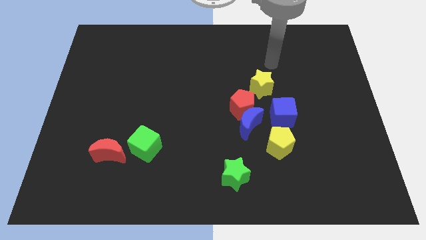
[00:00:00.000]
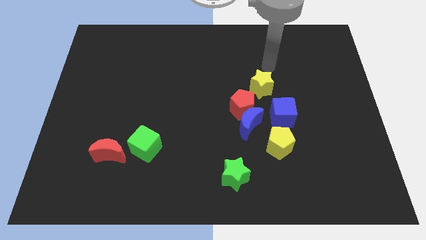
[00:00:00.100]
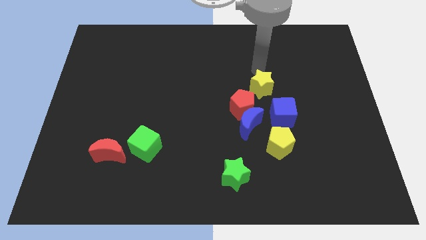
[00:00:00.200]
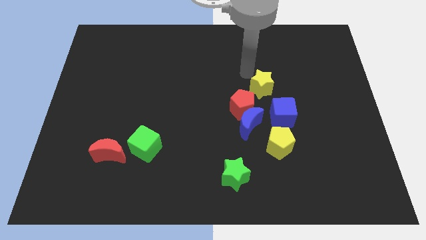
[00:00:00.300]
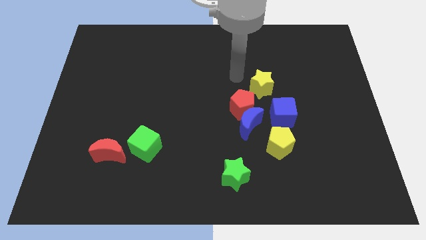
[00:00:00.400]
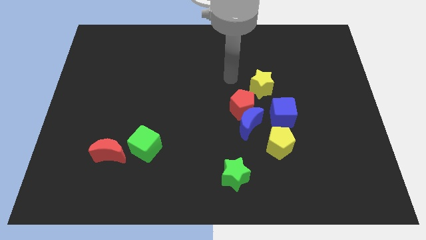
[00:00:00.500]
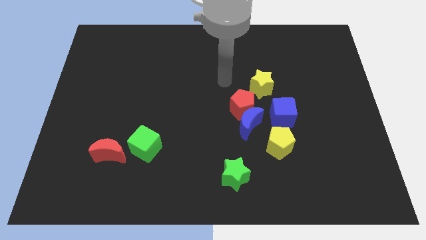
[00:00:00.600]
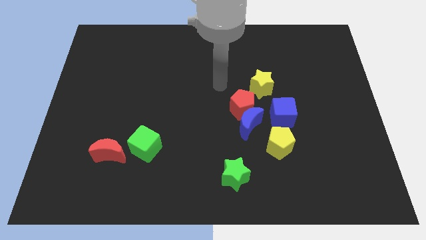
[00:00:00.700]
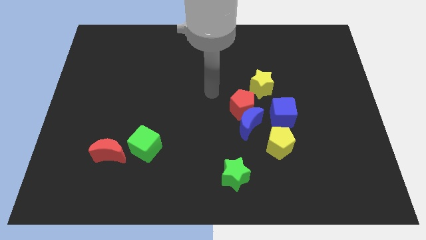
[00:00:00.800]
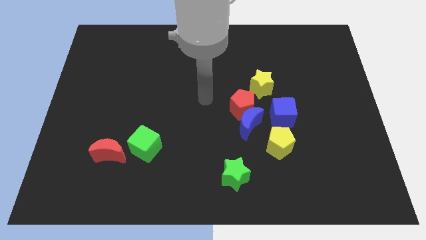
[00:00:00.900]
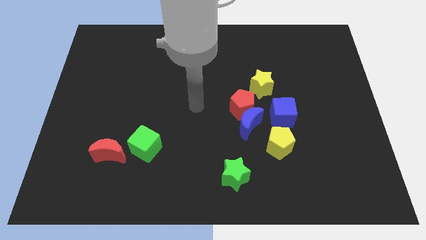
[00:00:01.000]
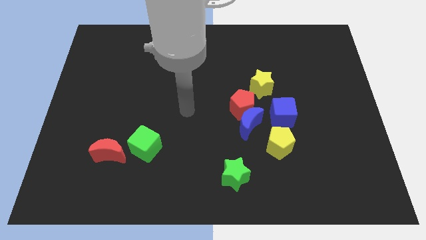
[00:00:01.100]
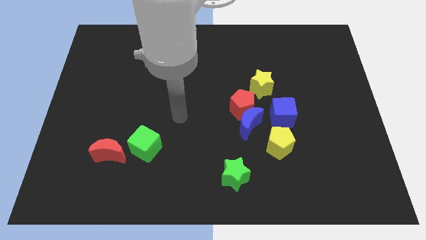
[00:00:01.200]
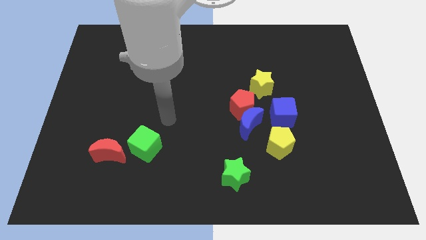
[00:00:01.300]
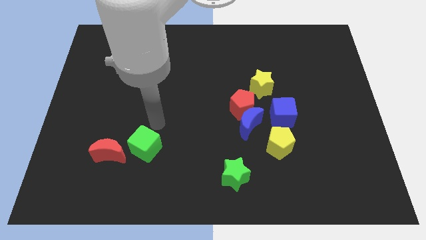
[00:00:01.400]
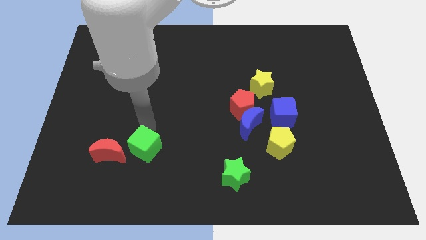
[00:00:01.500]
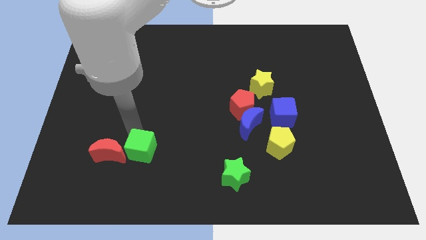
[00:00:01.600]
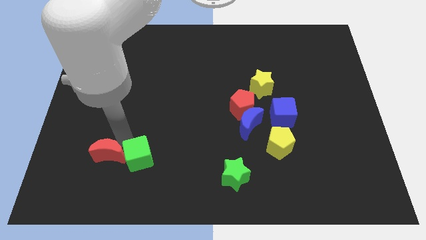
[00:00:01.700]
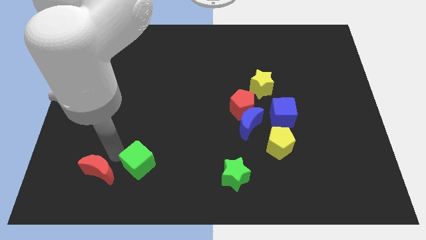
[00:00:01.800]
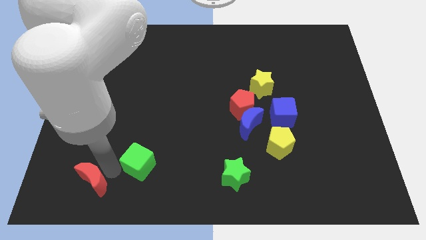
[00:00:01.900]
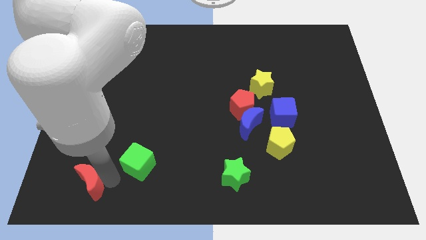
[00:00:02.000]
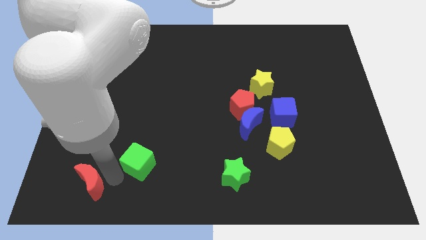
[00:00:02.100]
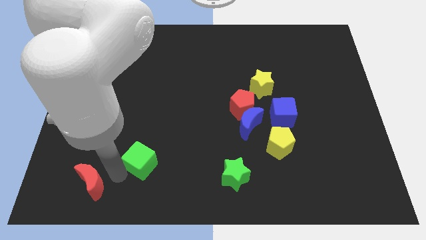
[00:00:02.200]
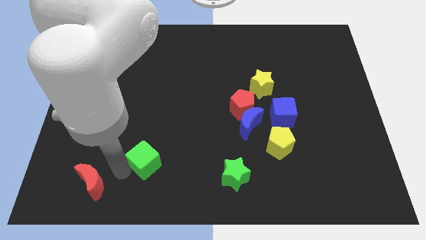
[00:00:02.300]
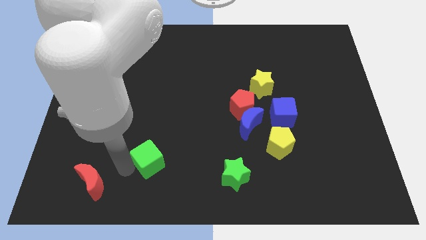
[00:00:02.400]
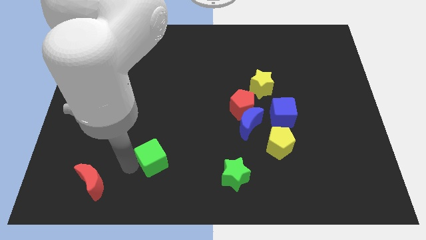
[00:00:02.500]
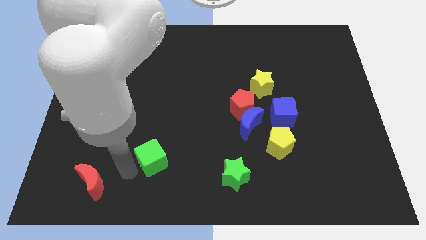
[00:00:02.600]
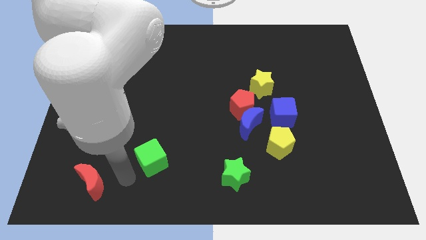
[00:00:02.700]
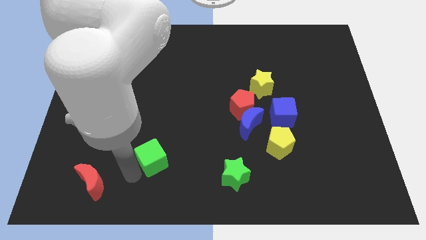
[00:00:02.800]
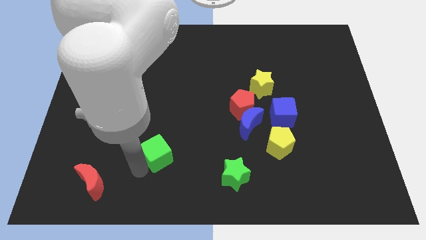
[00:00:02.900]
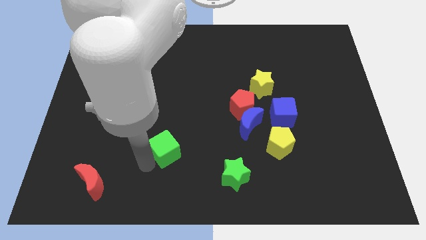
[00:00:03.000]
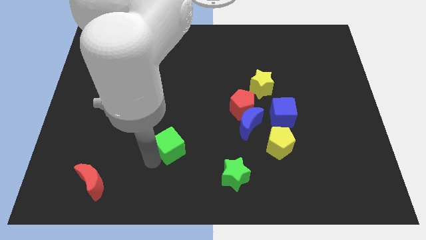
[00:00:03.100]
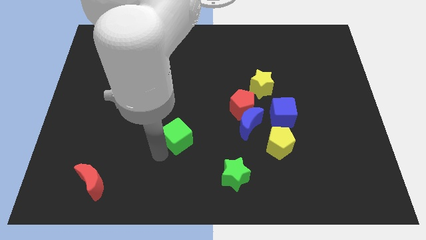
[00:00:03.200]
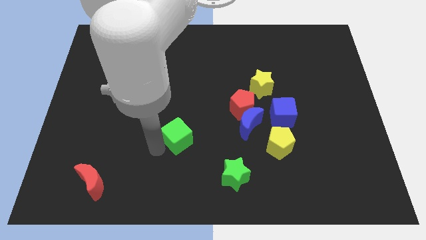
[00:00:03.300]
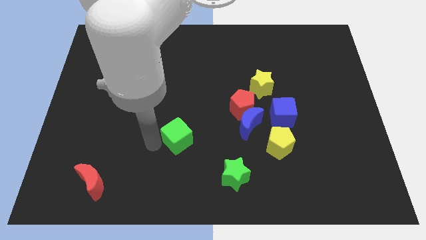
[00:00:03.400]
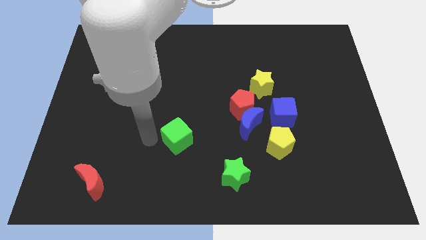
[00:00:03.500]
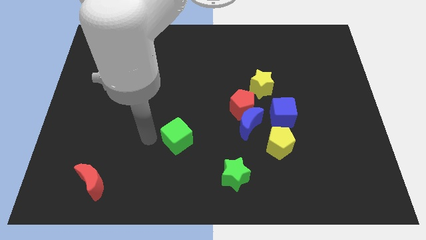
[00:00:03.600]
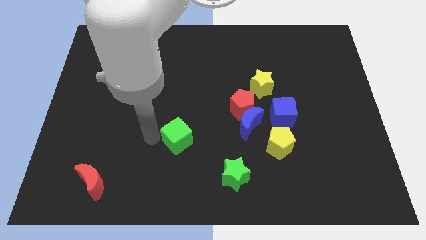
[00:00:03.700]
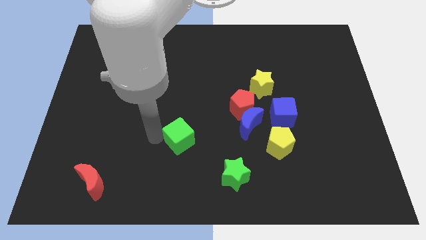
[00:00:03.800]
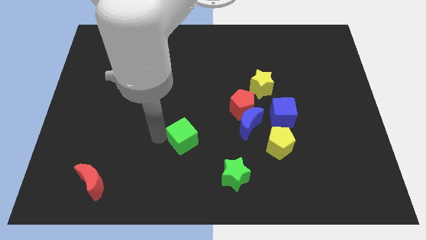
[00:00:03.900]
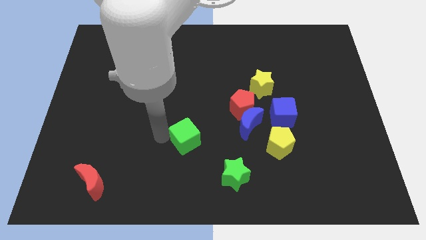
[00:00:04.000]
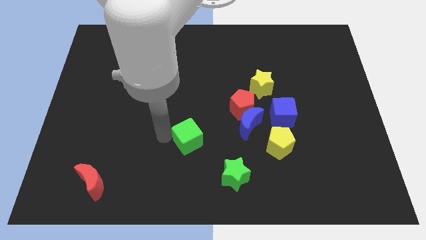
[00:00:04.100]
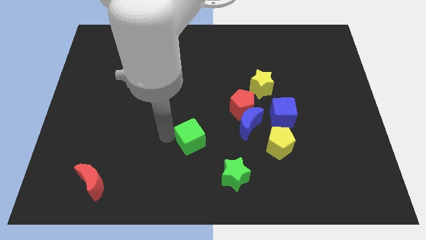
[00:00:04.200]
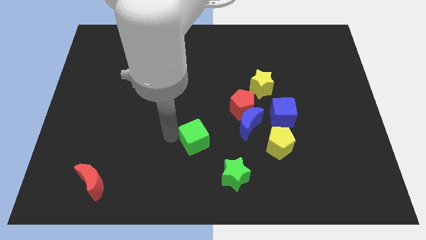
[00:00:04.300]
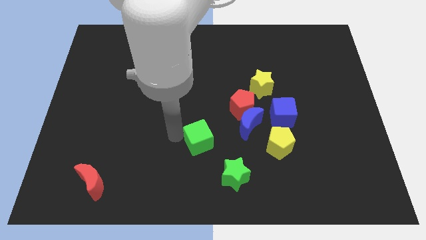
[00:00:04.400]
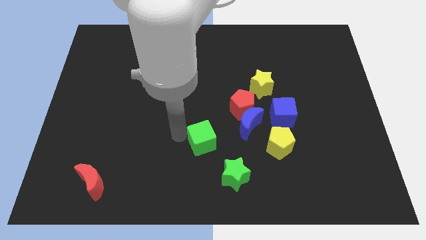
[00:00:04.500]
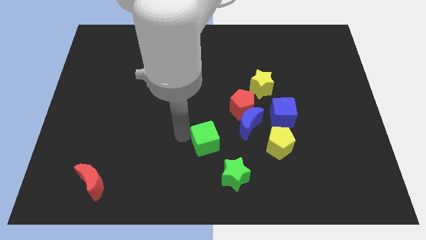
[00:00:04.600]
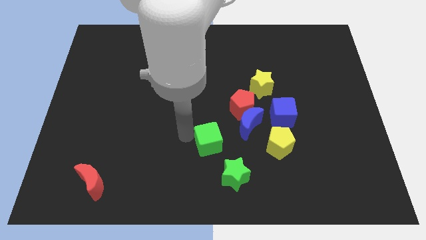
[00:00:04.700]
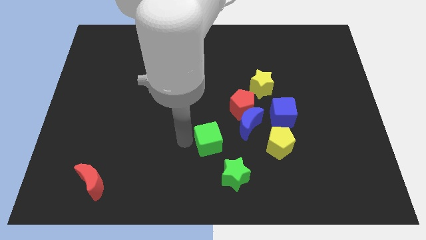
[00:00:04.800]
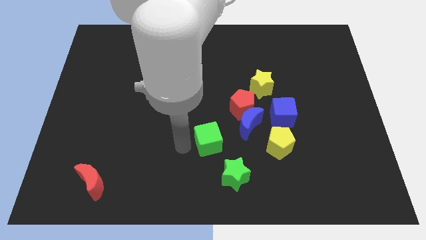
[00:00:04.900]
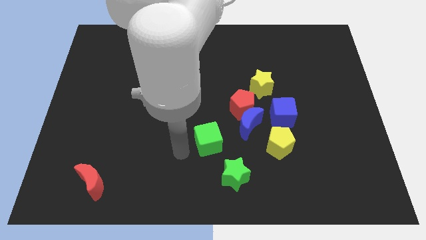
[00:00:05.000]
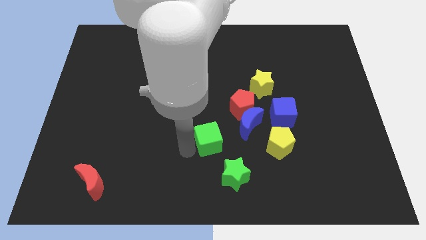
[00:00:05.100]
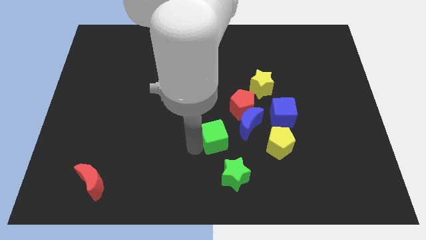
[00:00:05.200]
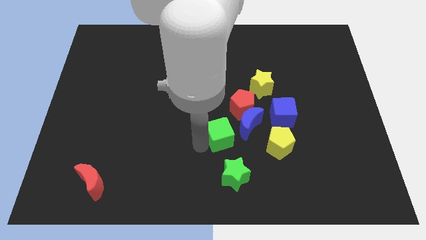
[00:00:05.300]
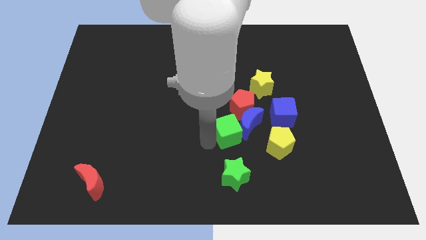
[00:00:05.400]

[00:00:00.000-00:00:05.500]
move the green cube towards the blue moon

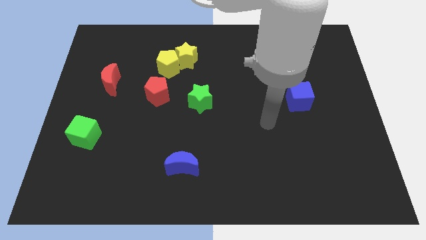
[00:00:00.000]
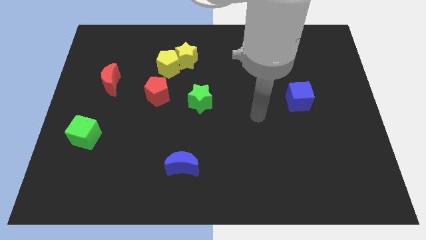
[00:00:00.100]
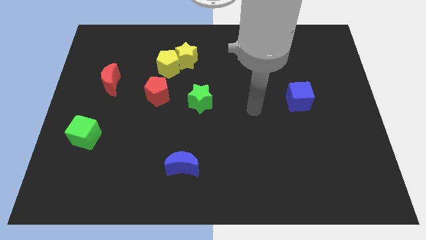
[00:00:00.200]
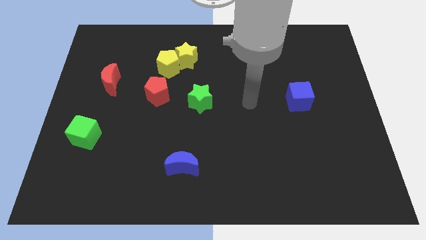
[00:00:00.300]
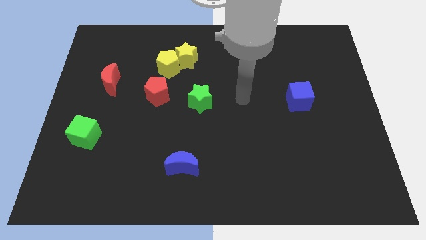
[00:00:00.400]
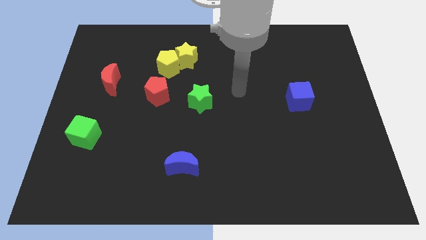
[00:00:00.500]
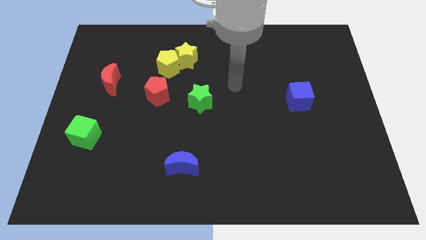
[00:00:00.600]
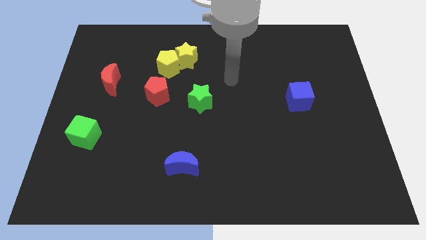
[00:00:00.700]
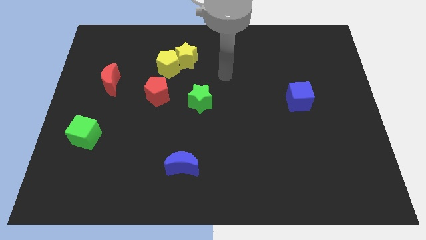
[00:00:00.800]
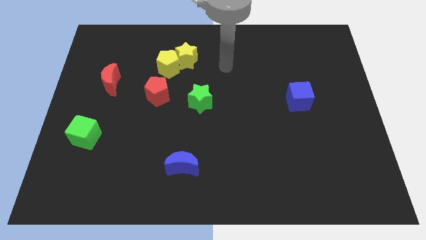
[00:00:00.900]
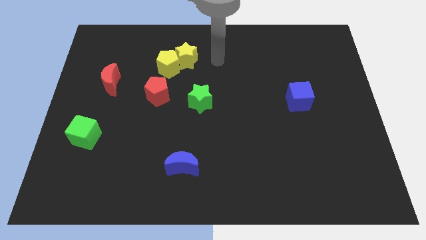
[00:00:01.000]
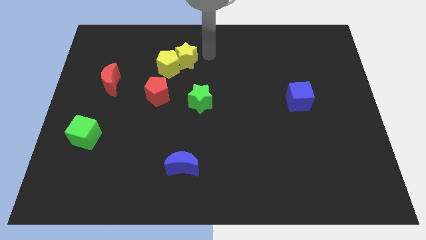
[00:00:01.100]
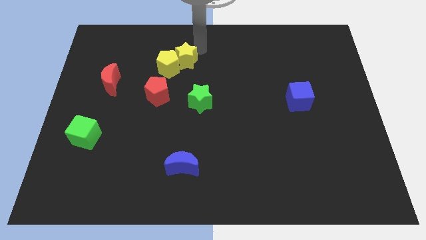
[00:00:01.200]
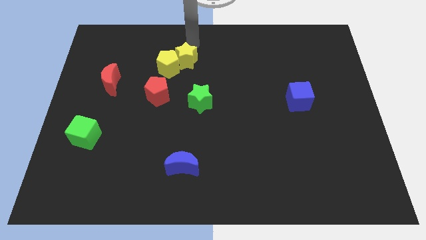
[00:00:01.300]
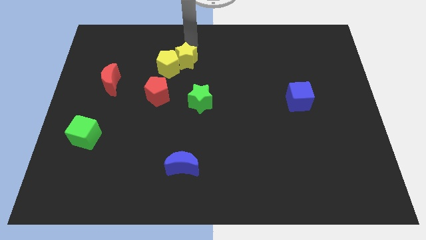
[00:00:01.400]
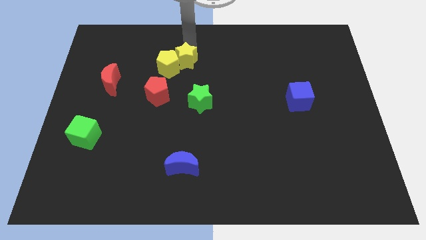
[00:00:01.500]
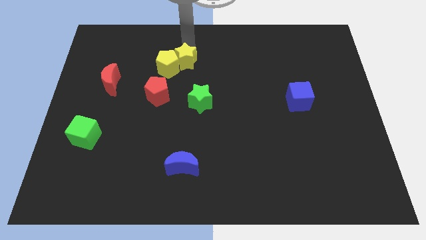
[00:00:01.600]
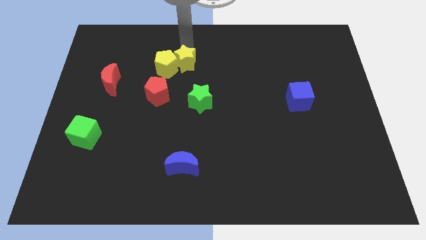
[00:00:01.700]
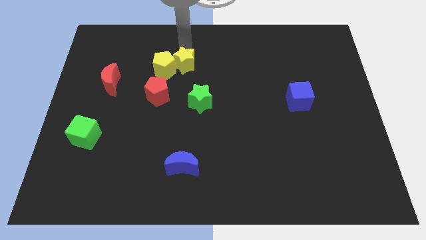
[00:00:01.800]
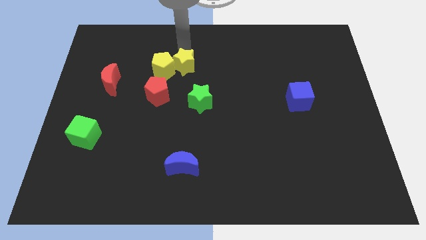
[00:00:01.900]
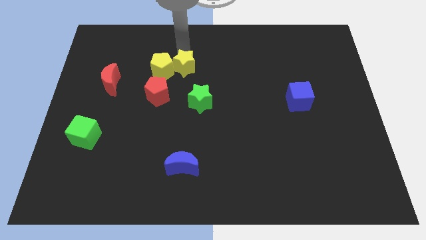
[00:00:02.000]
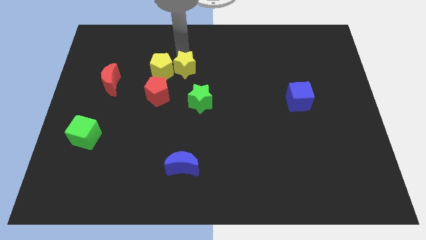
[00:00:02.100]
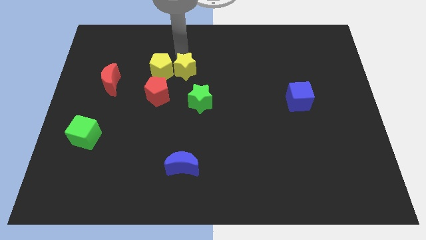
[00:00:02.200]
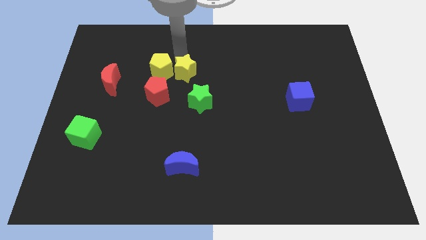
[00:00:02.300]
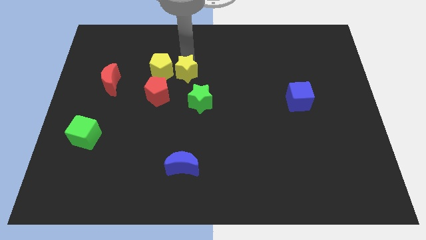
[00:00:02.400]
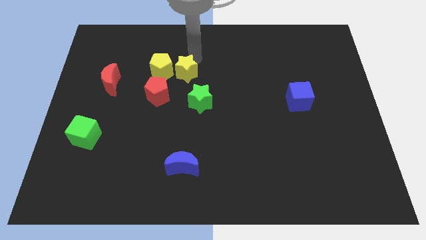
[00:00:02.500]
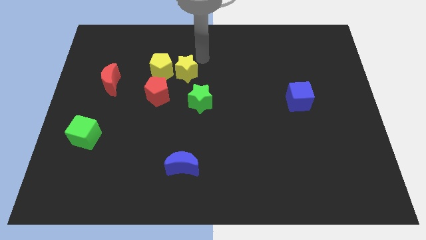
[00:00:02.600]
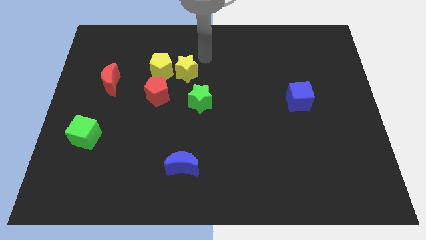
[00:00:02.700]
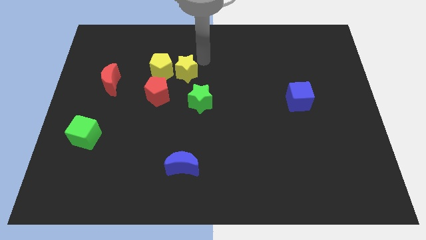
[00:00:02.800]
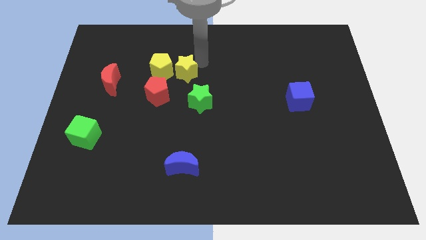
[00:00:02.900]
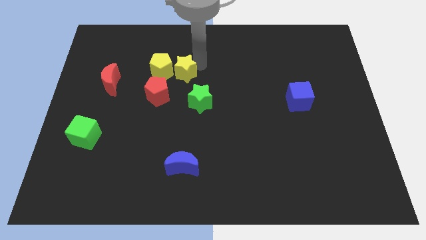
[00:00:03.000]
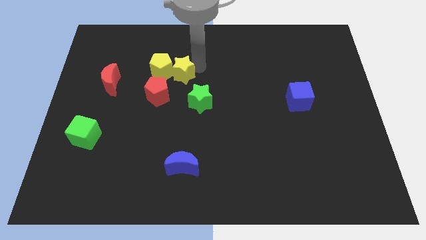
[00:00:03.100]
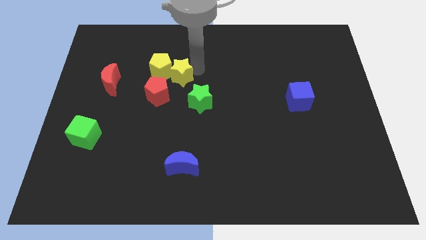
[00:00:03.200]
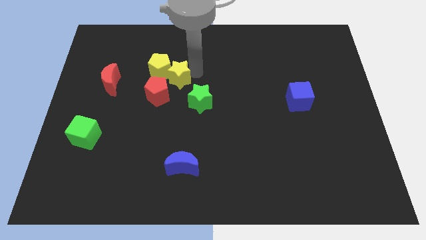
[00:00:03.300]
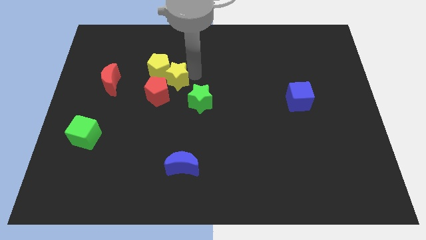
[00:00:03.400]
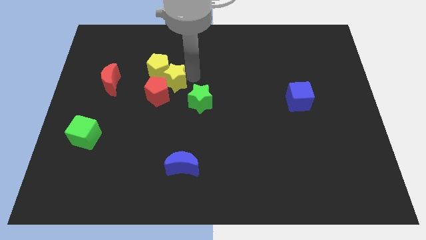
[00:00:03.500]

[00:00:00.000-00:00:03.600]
slide the yellow star close to the red pentagon
